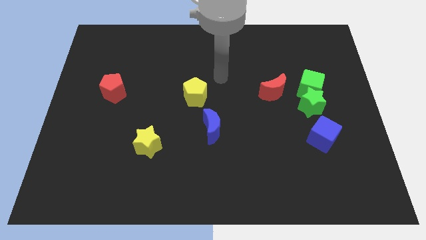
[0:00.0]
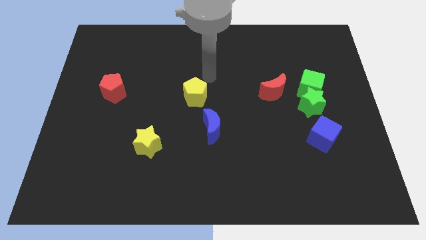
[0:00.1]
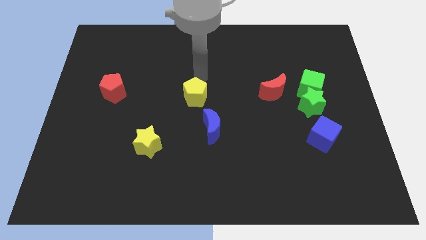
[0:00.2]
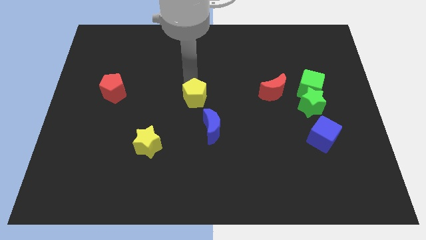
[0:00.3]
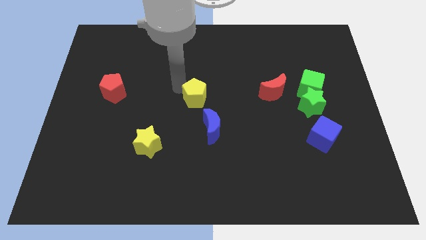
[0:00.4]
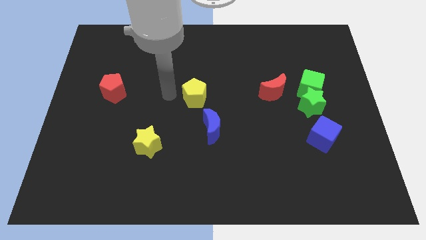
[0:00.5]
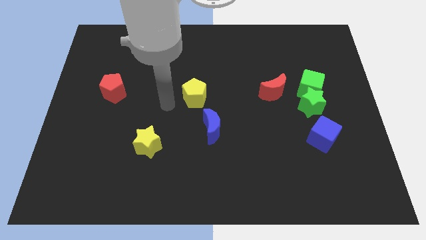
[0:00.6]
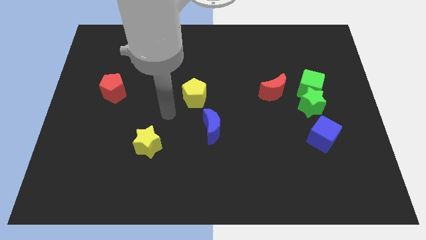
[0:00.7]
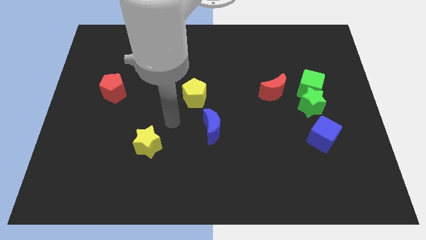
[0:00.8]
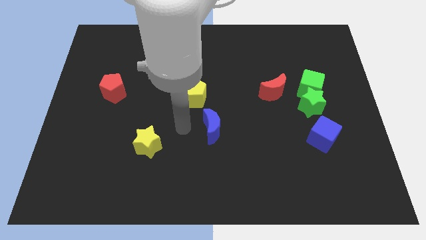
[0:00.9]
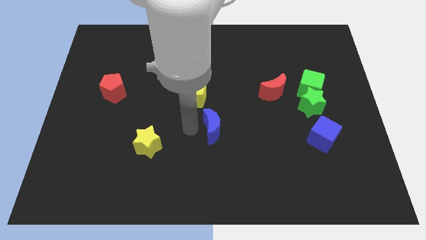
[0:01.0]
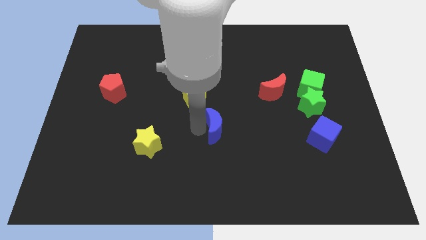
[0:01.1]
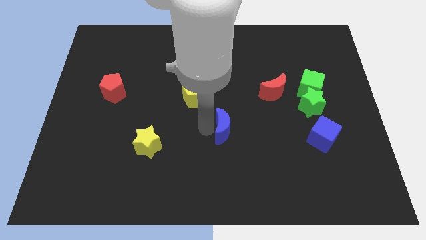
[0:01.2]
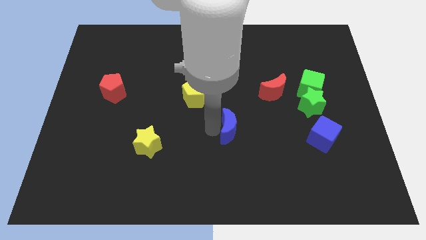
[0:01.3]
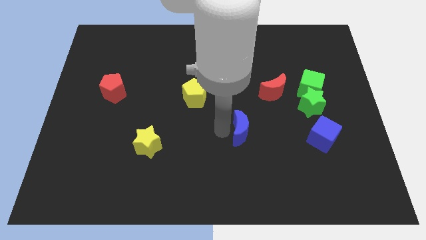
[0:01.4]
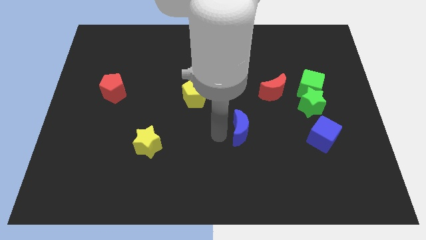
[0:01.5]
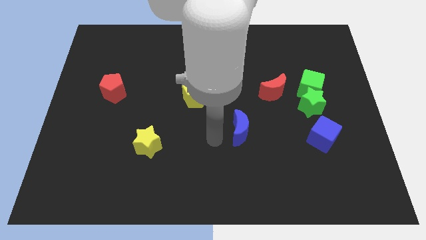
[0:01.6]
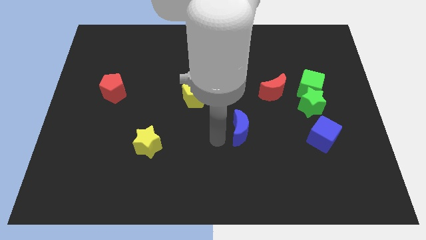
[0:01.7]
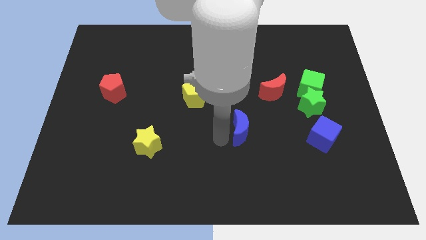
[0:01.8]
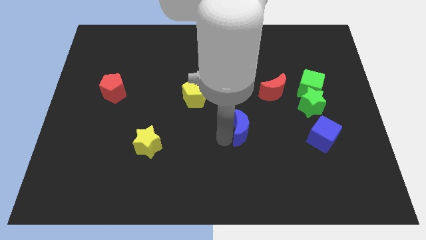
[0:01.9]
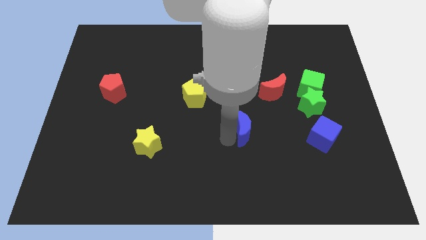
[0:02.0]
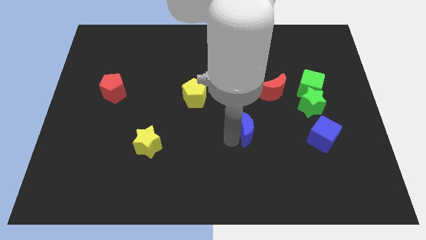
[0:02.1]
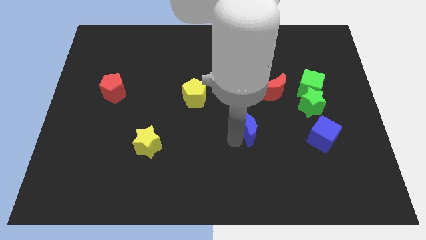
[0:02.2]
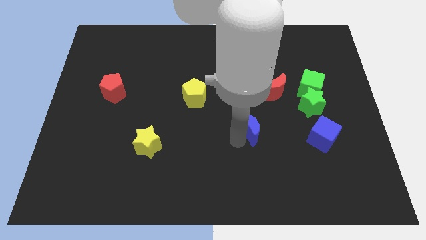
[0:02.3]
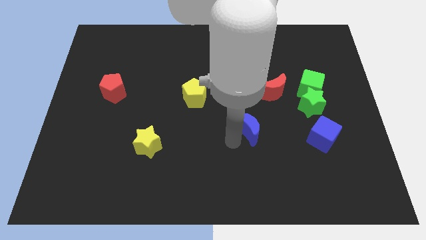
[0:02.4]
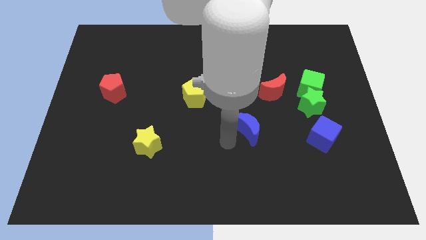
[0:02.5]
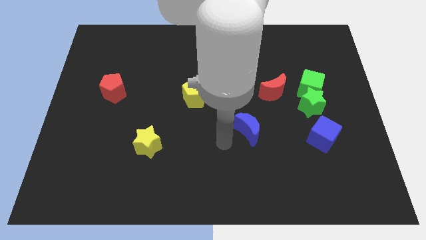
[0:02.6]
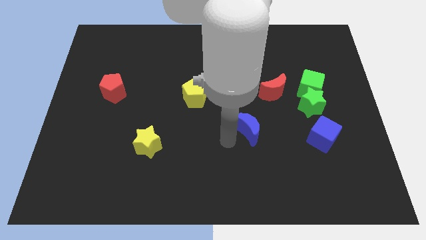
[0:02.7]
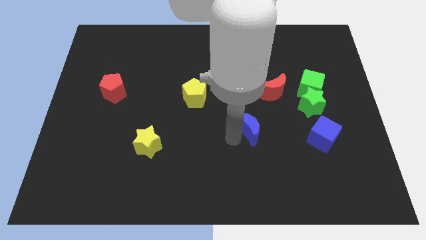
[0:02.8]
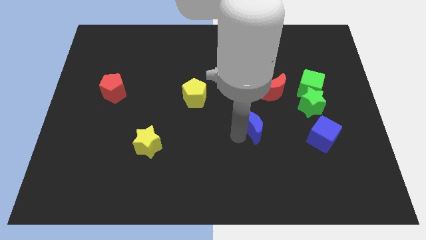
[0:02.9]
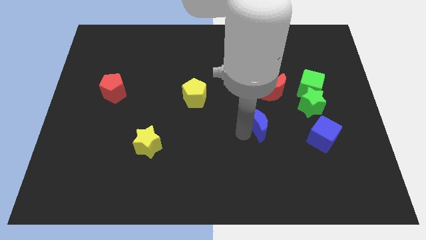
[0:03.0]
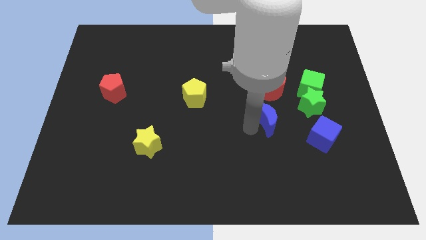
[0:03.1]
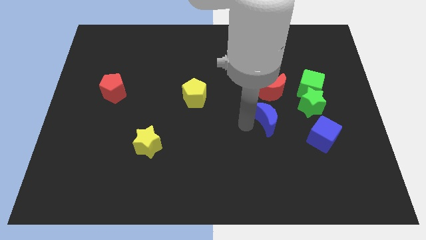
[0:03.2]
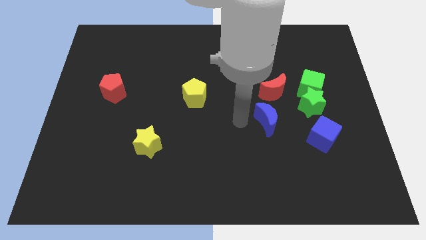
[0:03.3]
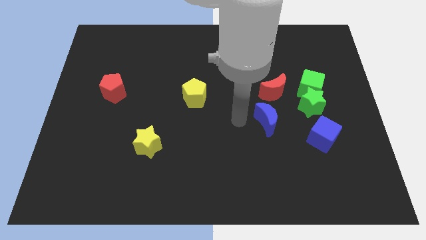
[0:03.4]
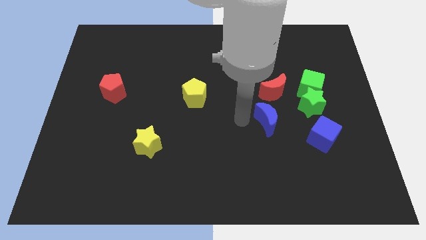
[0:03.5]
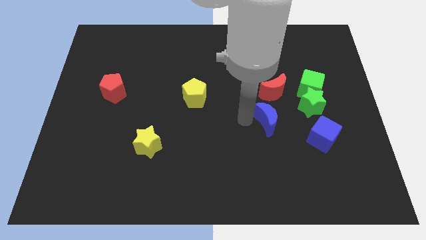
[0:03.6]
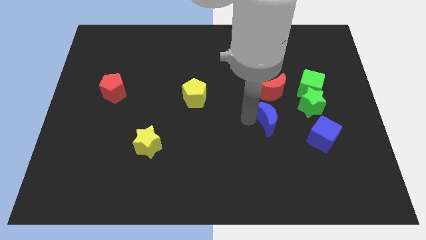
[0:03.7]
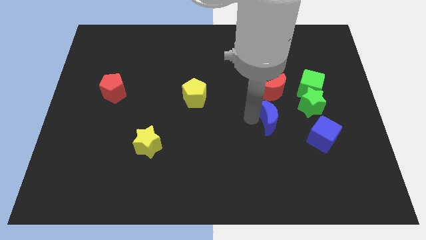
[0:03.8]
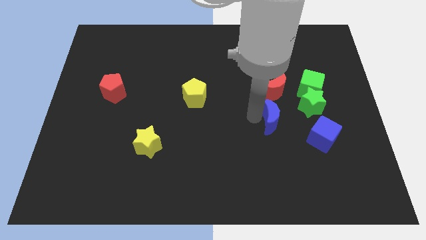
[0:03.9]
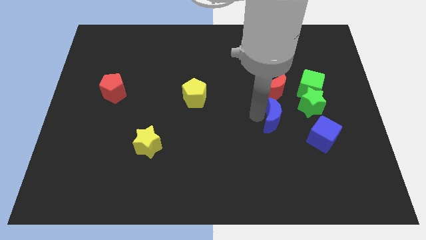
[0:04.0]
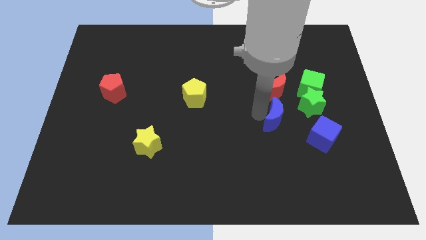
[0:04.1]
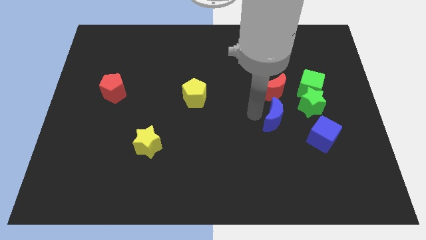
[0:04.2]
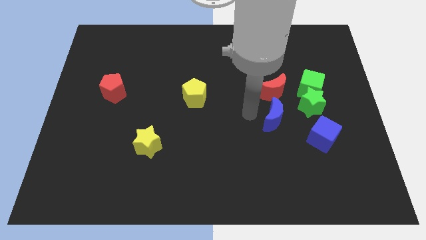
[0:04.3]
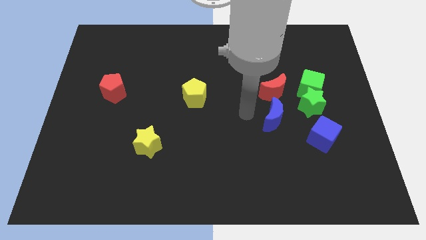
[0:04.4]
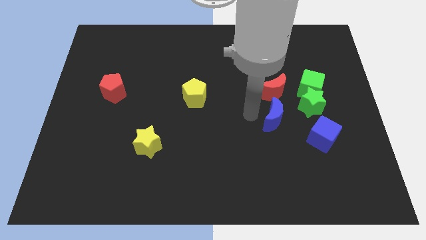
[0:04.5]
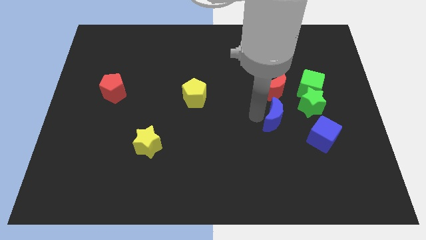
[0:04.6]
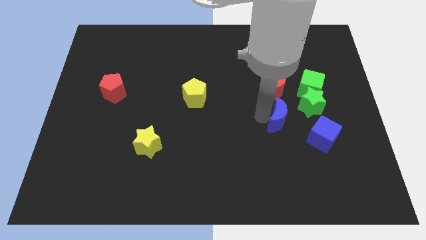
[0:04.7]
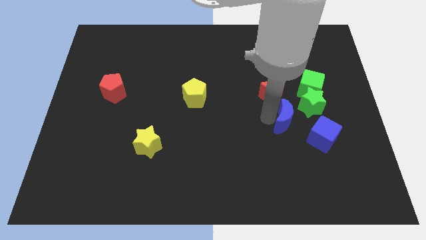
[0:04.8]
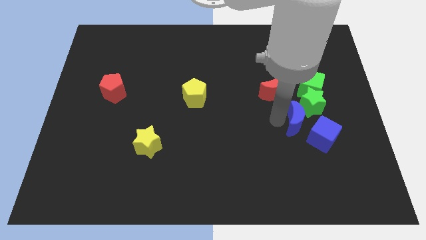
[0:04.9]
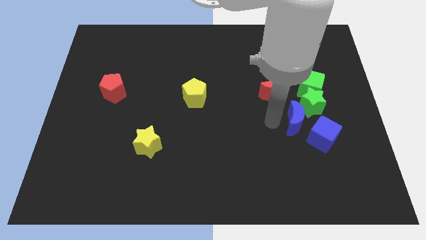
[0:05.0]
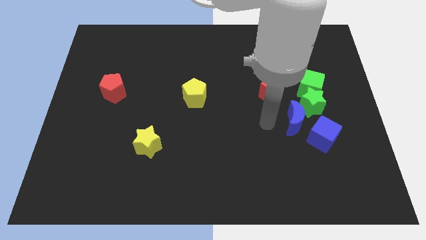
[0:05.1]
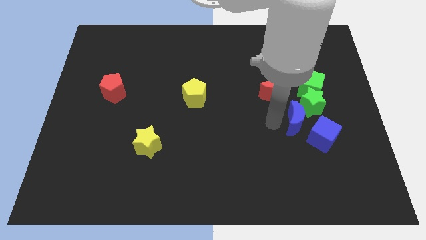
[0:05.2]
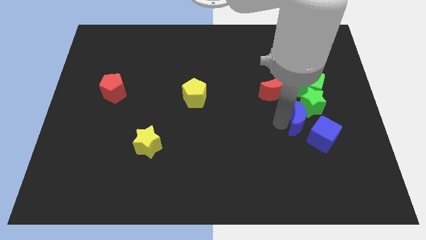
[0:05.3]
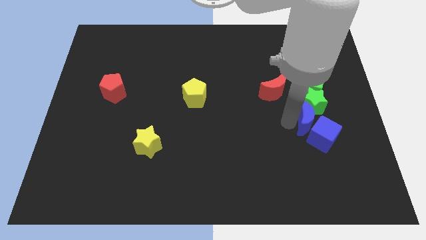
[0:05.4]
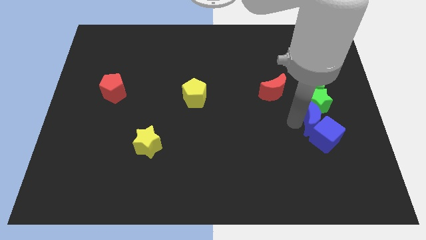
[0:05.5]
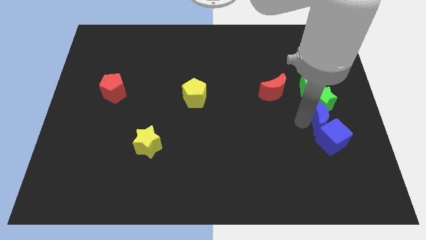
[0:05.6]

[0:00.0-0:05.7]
put the blue moon diagonally down and to the right of the green star

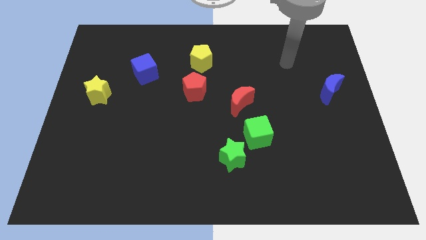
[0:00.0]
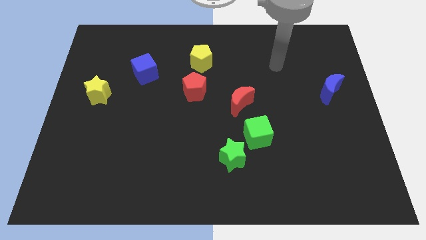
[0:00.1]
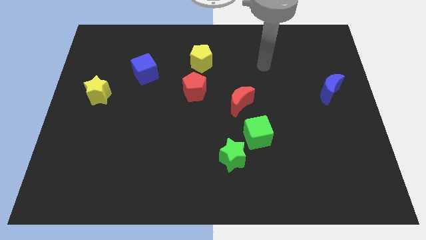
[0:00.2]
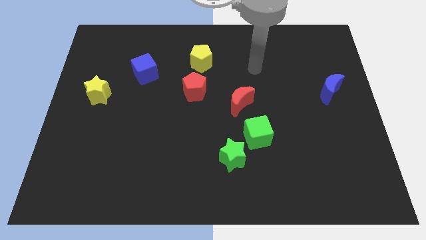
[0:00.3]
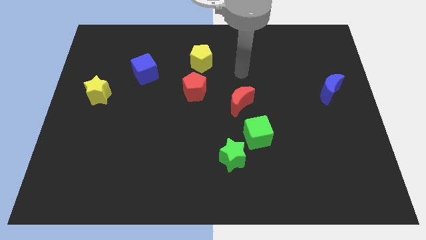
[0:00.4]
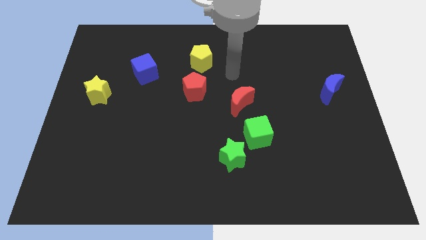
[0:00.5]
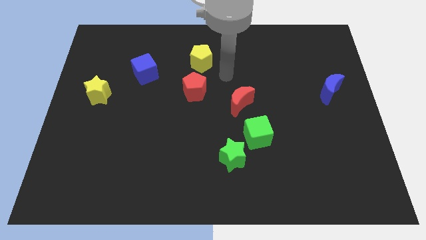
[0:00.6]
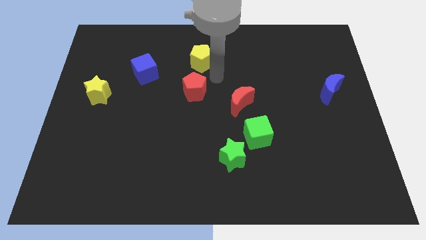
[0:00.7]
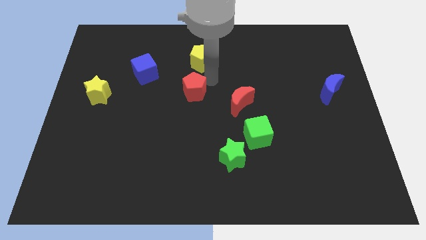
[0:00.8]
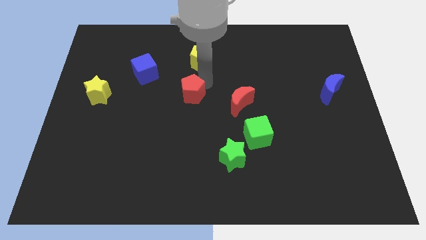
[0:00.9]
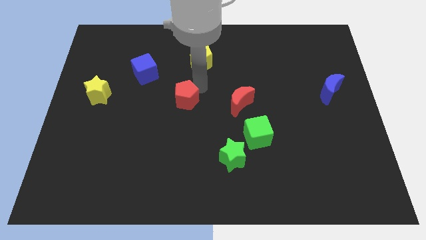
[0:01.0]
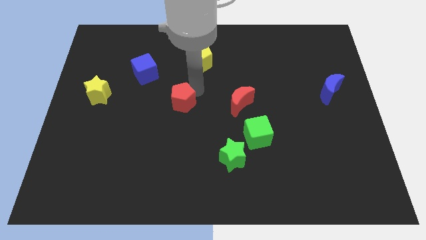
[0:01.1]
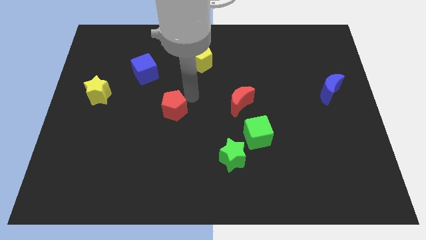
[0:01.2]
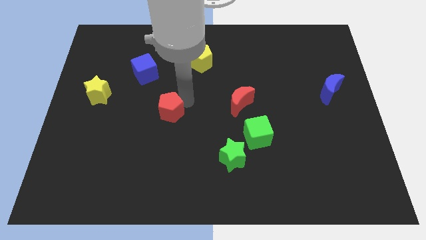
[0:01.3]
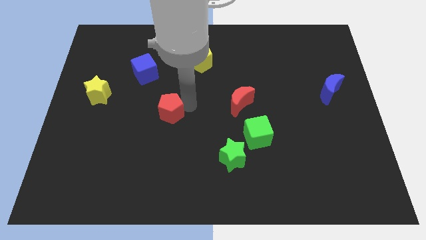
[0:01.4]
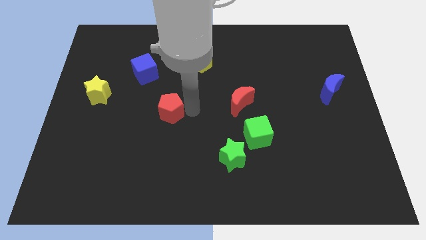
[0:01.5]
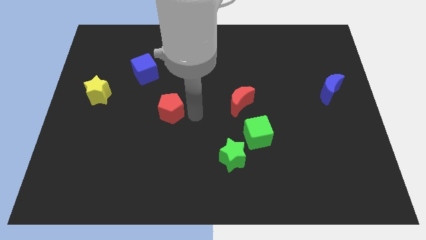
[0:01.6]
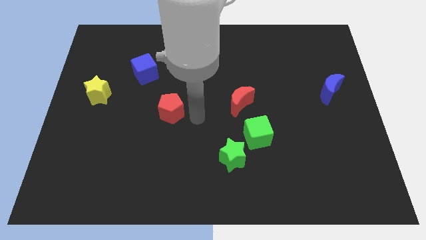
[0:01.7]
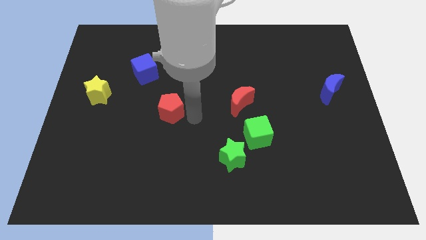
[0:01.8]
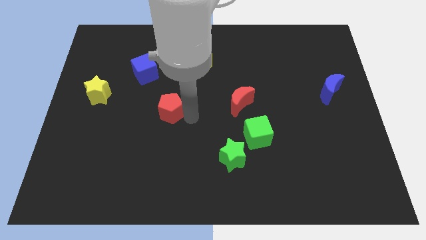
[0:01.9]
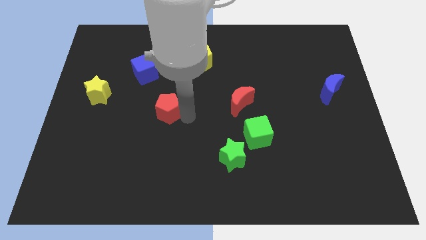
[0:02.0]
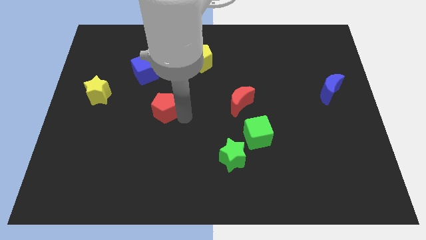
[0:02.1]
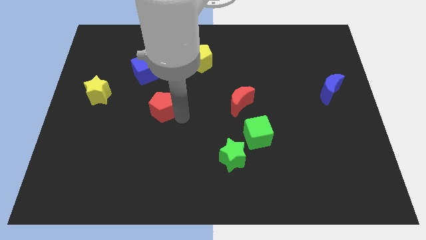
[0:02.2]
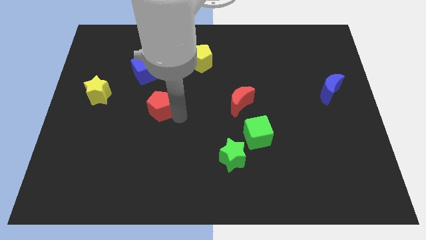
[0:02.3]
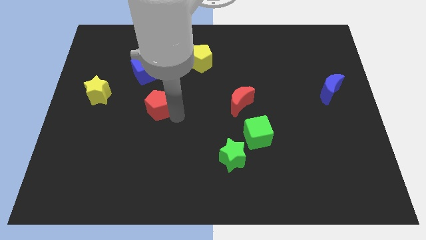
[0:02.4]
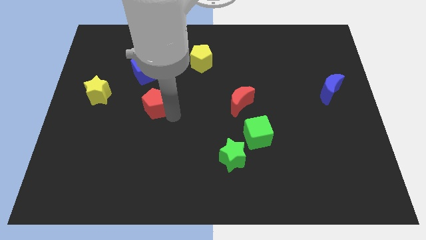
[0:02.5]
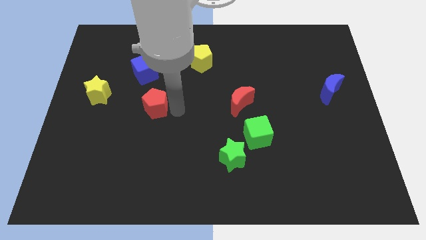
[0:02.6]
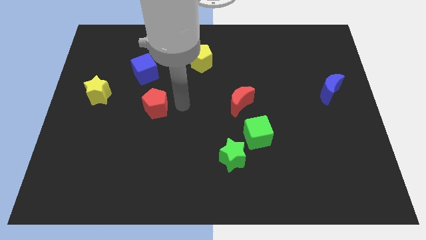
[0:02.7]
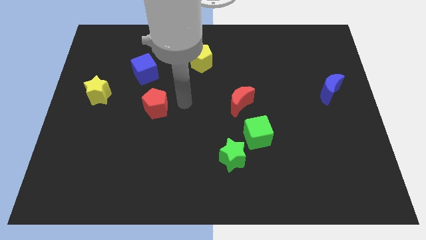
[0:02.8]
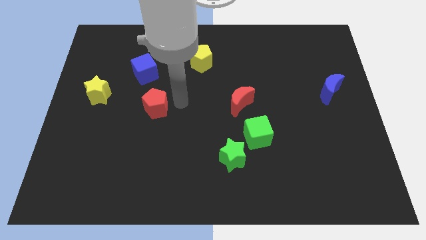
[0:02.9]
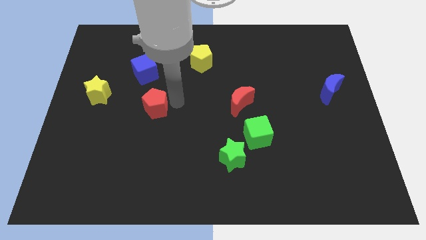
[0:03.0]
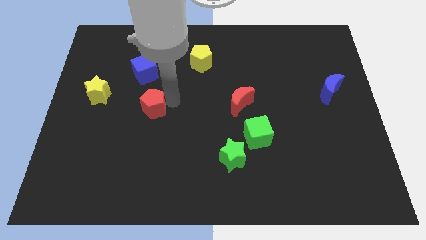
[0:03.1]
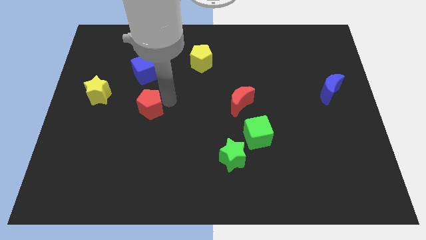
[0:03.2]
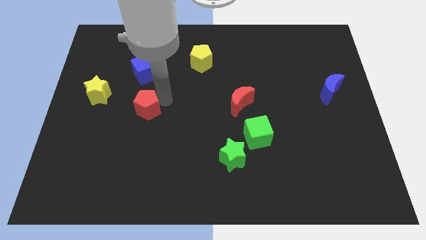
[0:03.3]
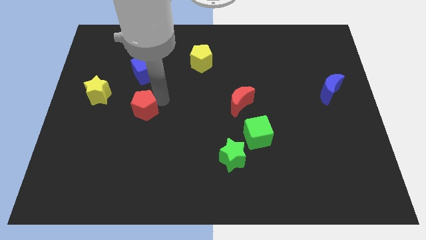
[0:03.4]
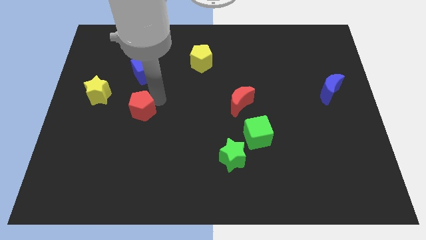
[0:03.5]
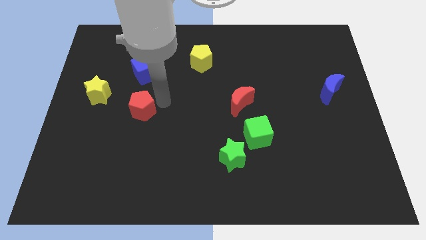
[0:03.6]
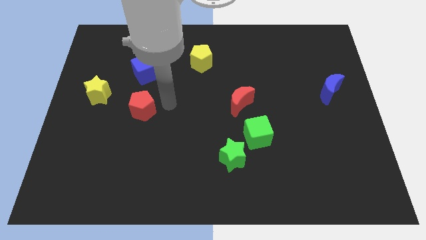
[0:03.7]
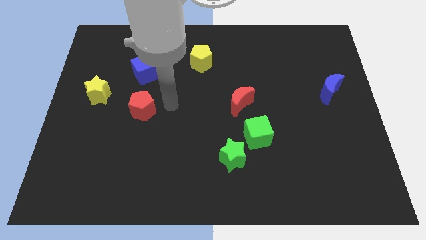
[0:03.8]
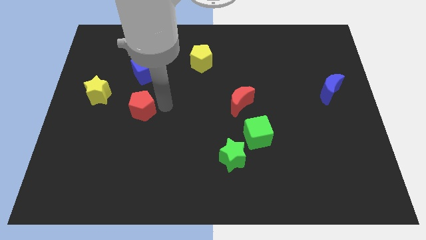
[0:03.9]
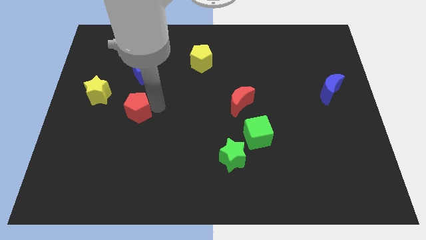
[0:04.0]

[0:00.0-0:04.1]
slide the red pentagon diagonally down and to the right of the yellow star
